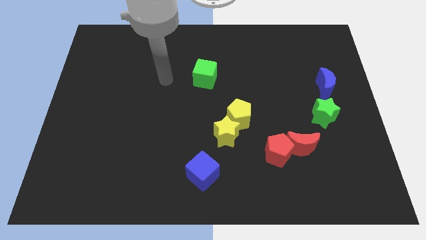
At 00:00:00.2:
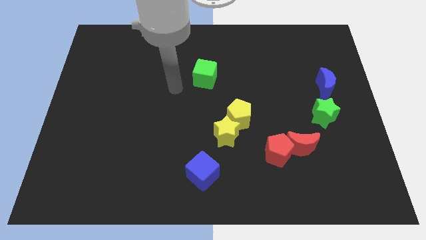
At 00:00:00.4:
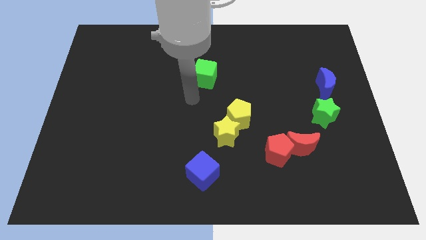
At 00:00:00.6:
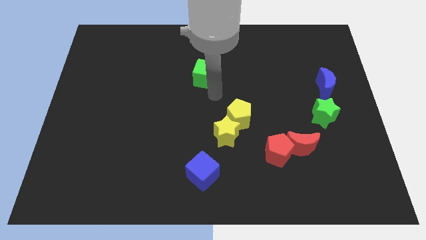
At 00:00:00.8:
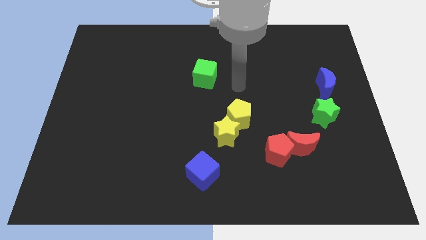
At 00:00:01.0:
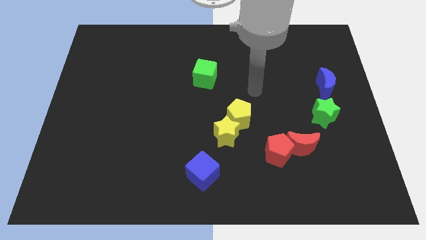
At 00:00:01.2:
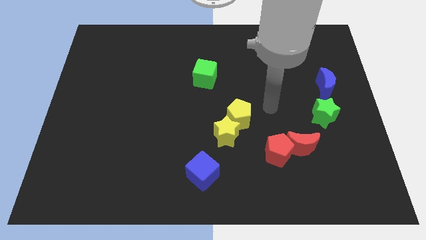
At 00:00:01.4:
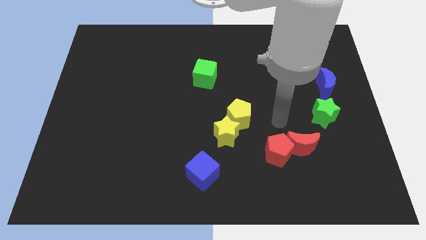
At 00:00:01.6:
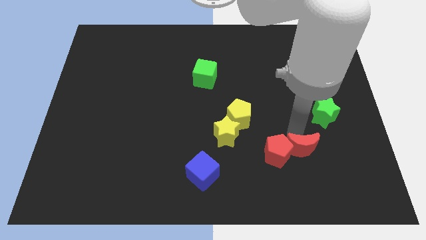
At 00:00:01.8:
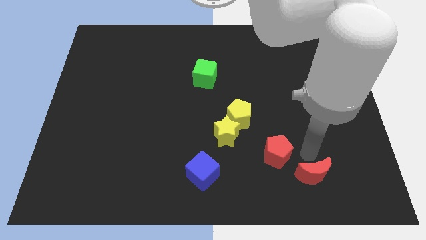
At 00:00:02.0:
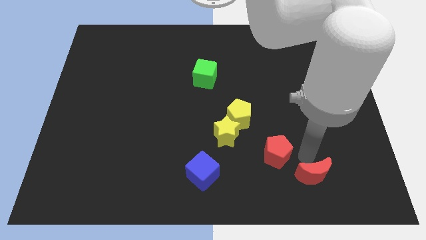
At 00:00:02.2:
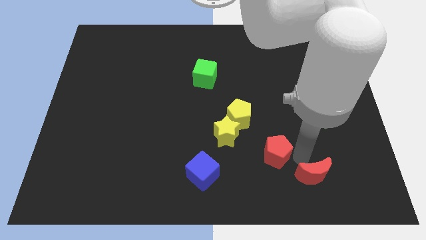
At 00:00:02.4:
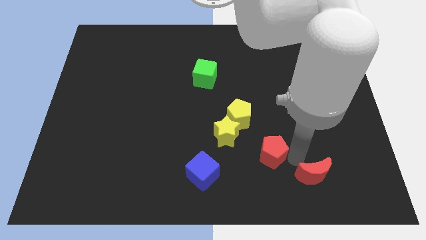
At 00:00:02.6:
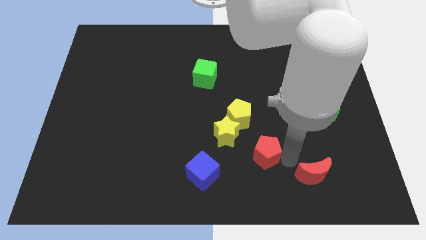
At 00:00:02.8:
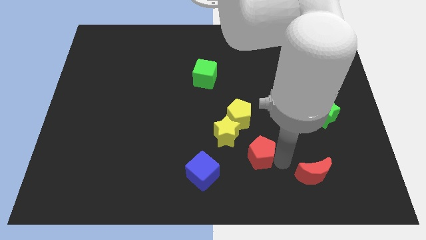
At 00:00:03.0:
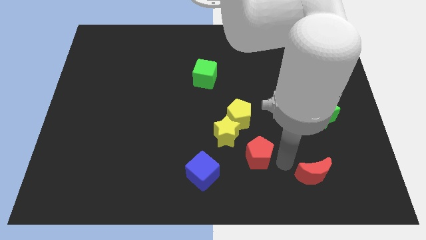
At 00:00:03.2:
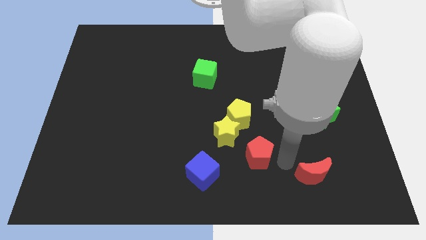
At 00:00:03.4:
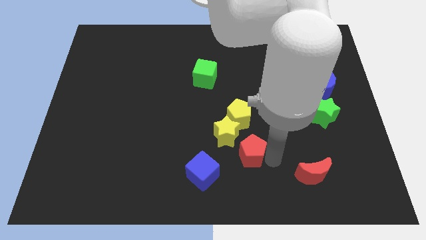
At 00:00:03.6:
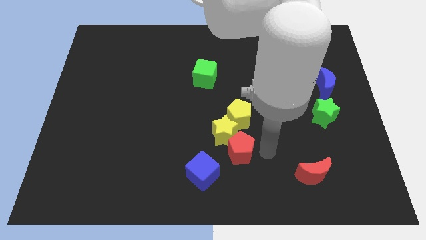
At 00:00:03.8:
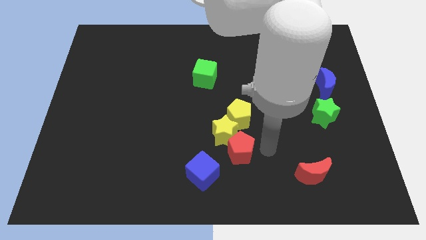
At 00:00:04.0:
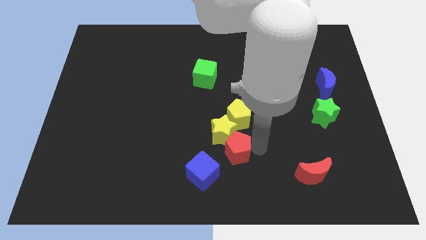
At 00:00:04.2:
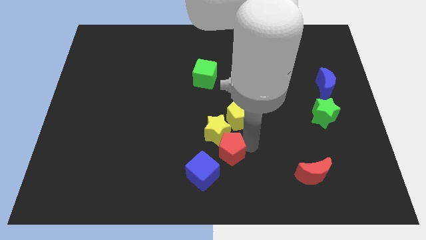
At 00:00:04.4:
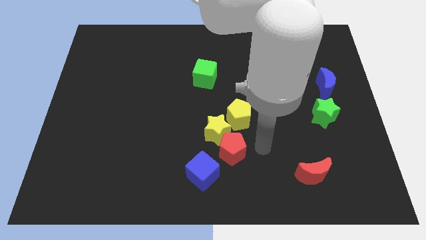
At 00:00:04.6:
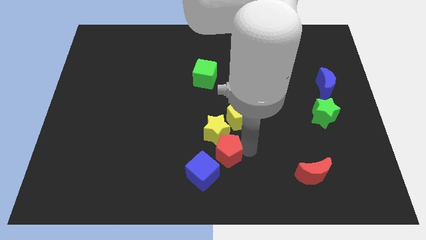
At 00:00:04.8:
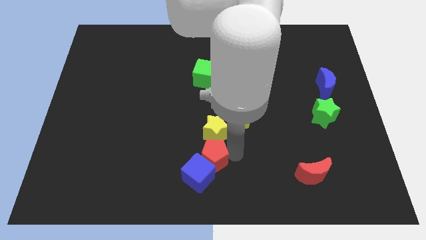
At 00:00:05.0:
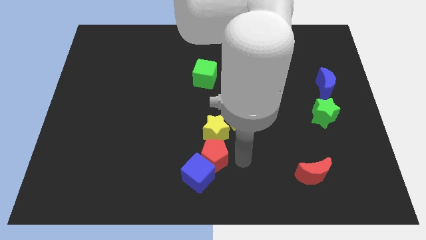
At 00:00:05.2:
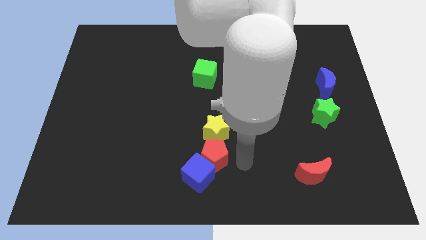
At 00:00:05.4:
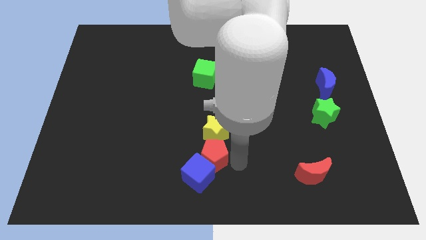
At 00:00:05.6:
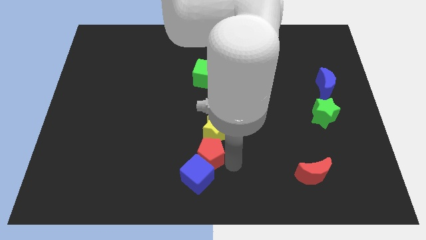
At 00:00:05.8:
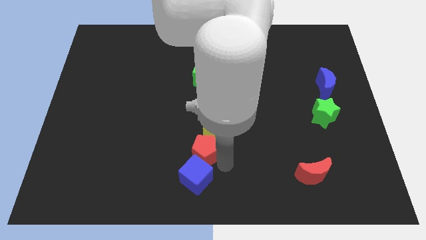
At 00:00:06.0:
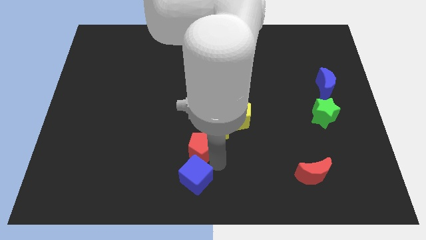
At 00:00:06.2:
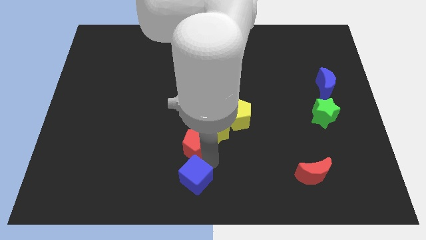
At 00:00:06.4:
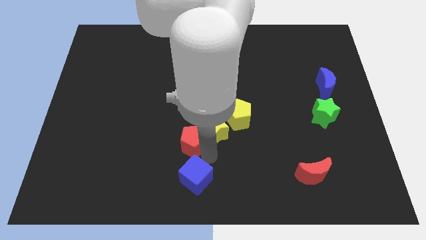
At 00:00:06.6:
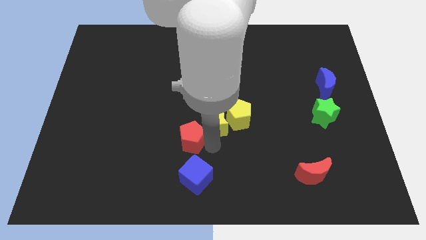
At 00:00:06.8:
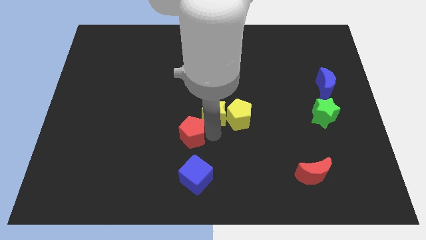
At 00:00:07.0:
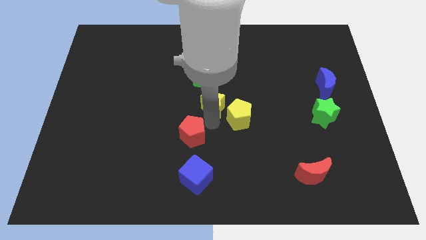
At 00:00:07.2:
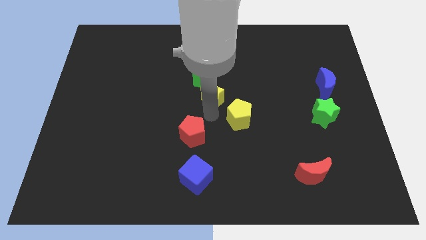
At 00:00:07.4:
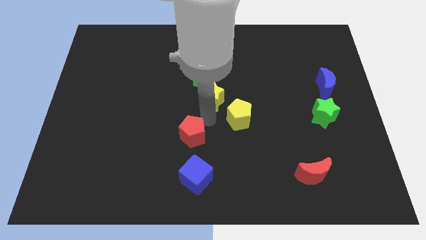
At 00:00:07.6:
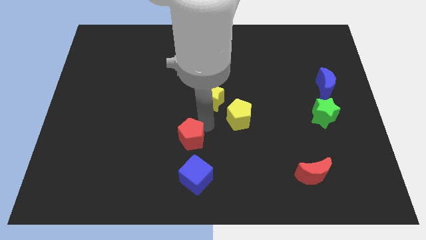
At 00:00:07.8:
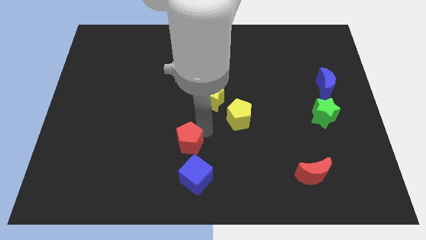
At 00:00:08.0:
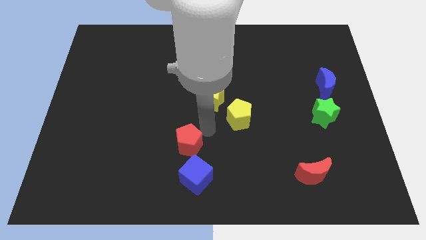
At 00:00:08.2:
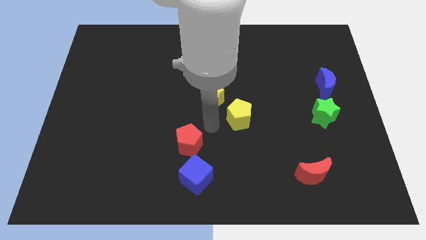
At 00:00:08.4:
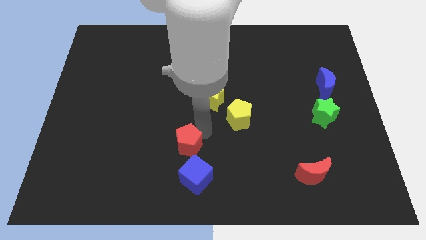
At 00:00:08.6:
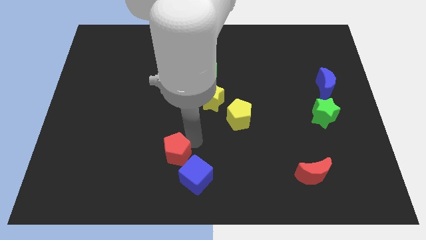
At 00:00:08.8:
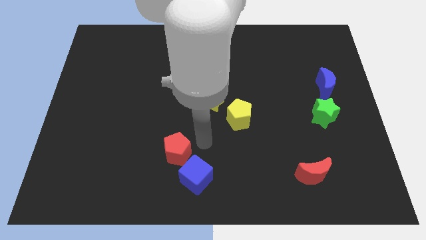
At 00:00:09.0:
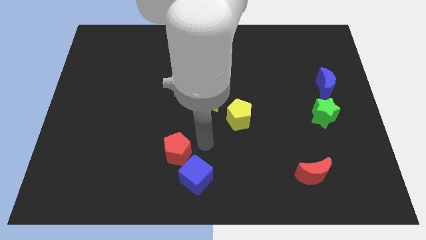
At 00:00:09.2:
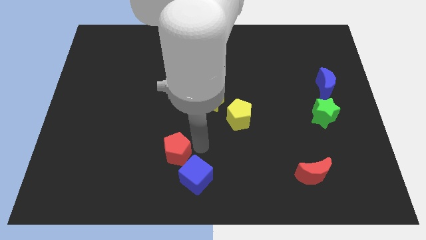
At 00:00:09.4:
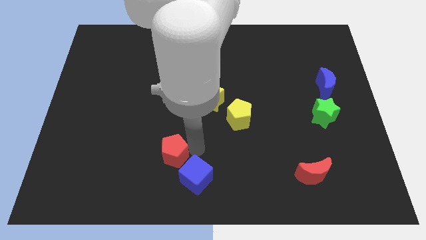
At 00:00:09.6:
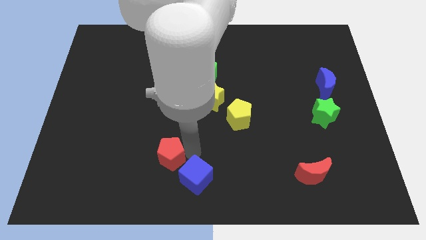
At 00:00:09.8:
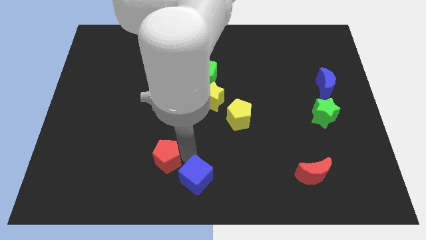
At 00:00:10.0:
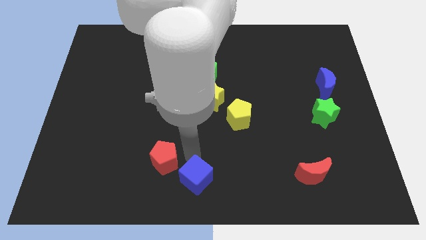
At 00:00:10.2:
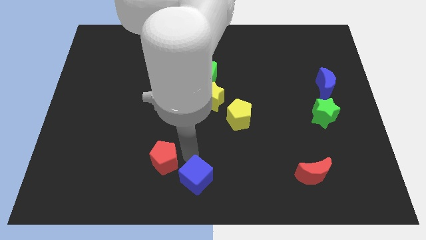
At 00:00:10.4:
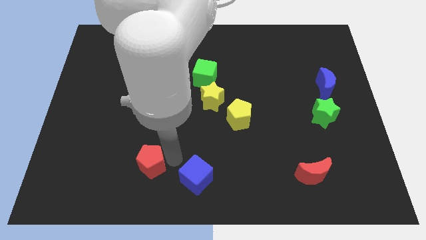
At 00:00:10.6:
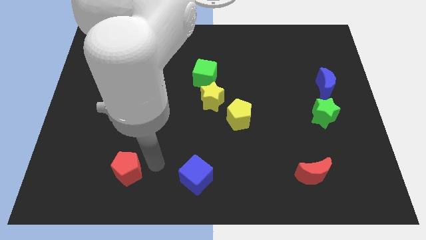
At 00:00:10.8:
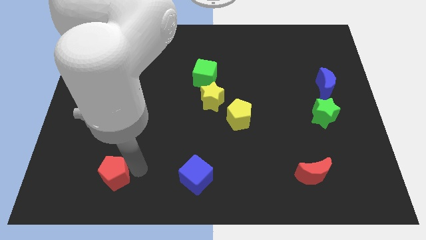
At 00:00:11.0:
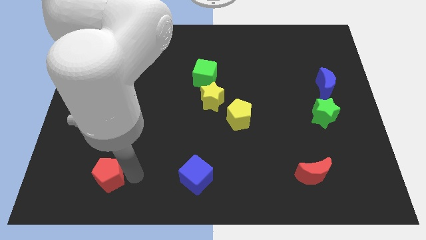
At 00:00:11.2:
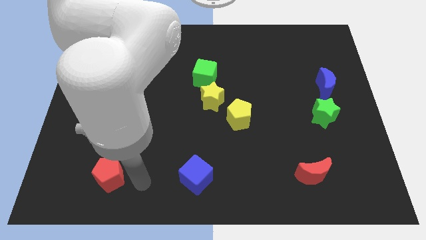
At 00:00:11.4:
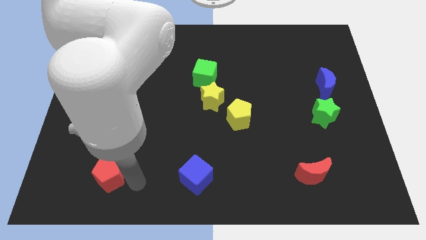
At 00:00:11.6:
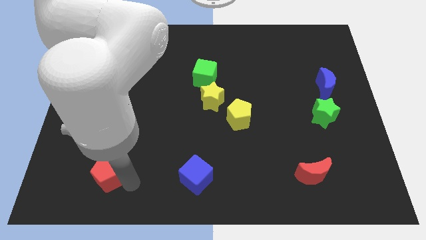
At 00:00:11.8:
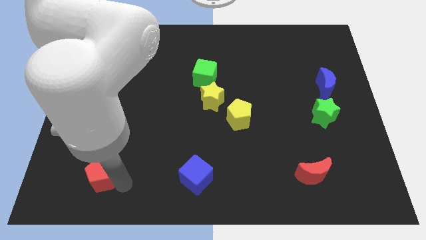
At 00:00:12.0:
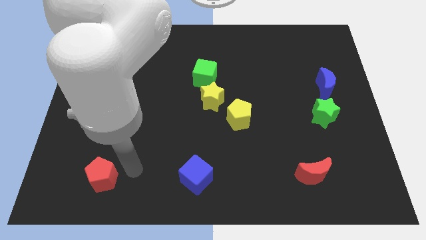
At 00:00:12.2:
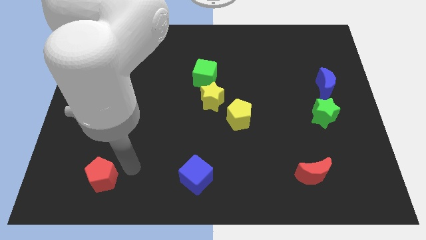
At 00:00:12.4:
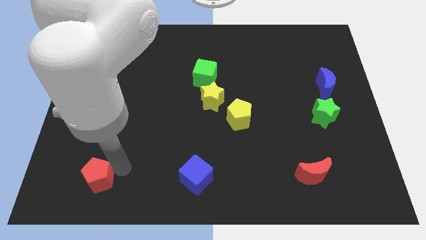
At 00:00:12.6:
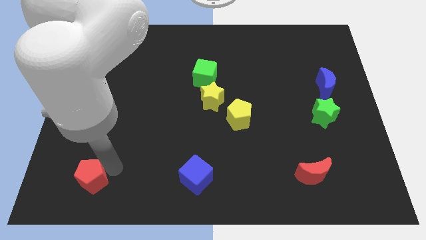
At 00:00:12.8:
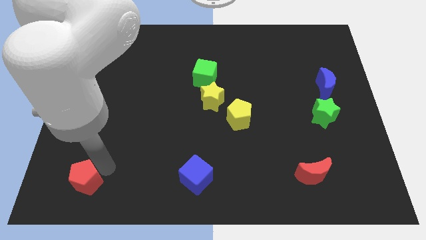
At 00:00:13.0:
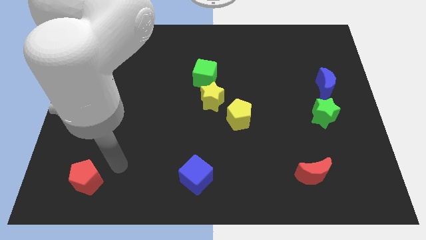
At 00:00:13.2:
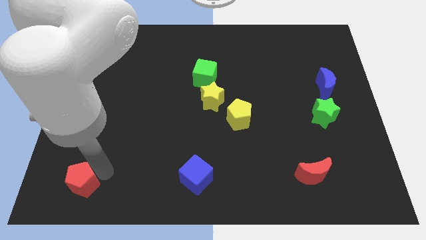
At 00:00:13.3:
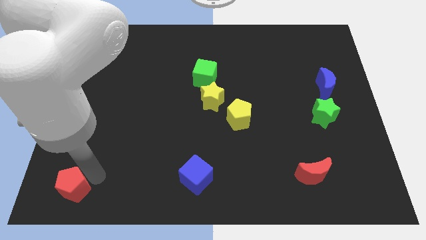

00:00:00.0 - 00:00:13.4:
push the red pentagon to the bottom left corner
